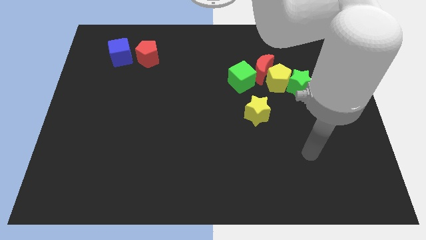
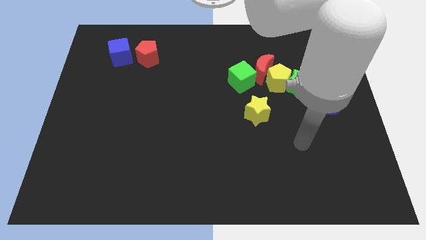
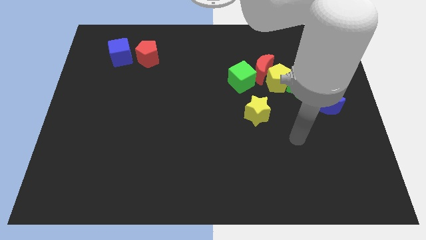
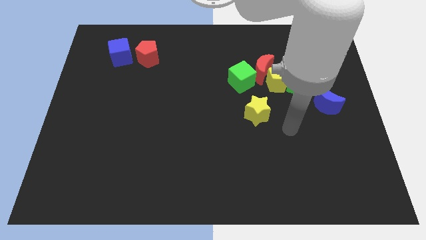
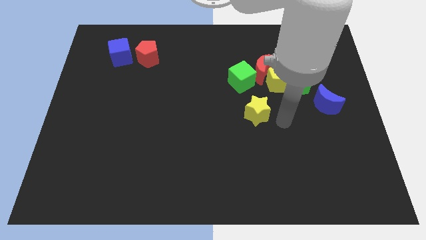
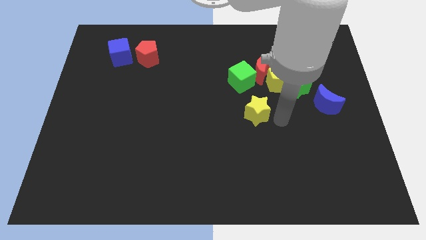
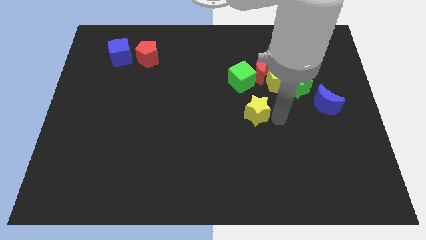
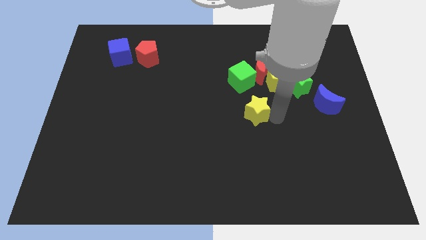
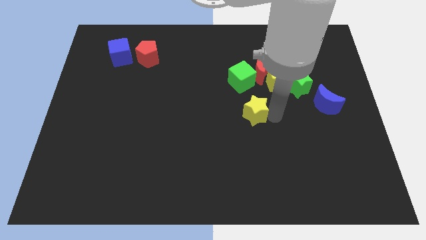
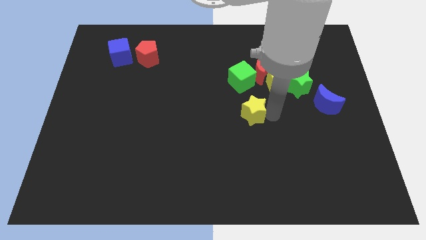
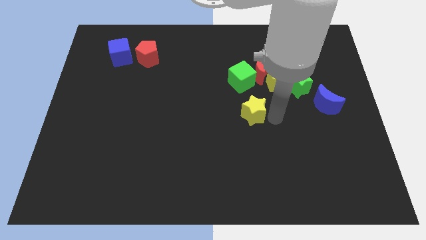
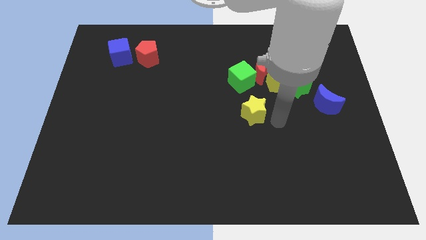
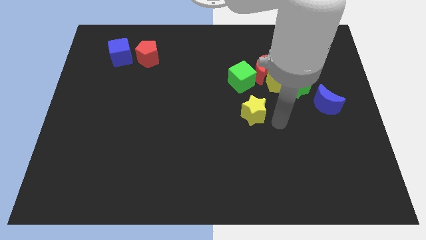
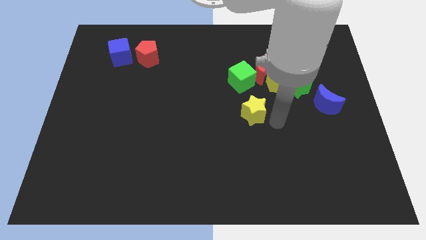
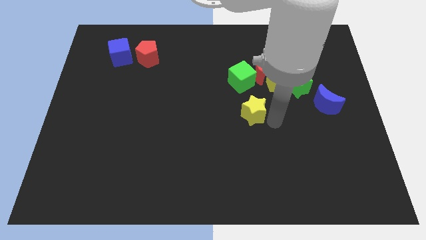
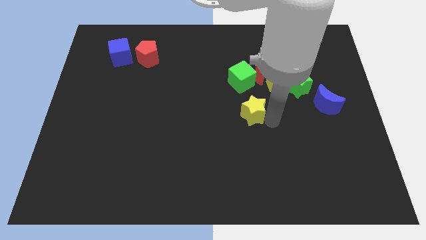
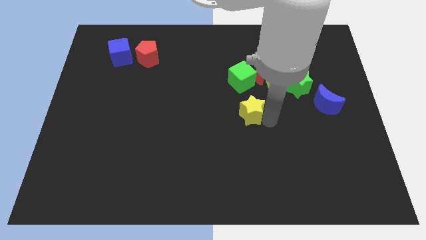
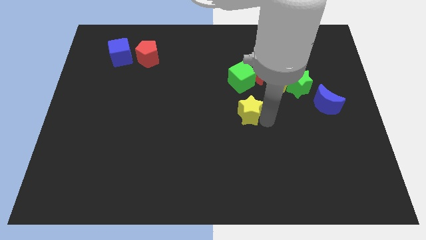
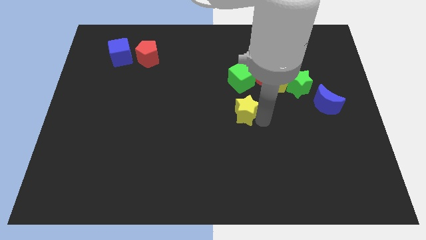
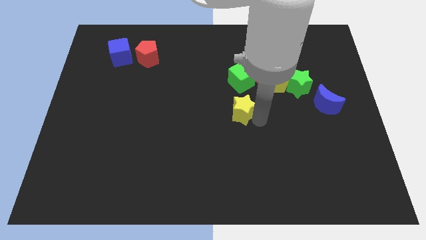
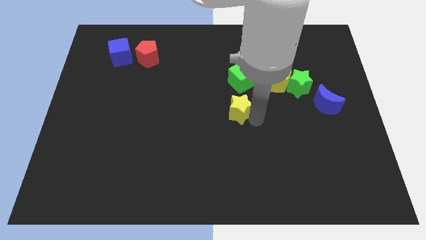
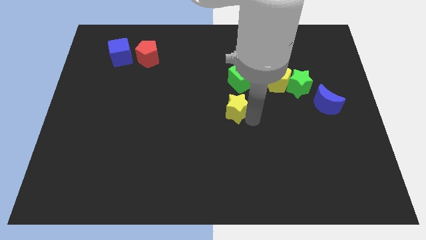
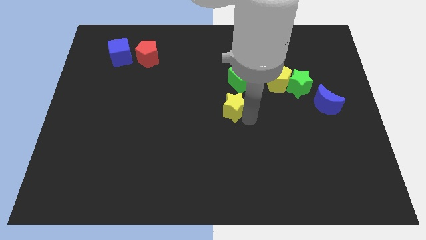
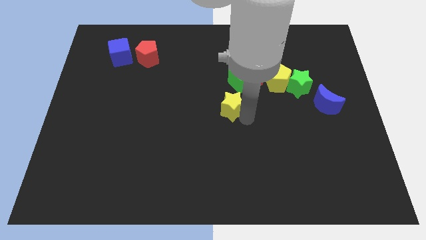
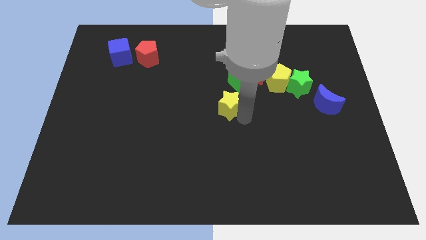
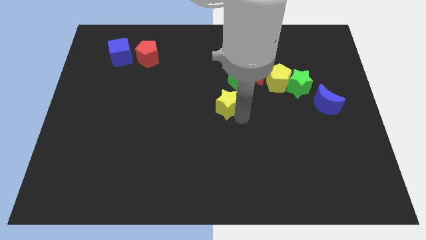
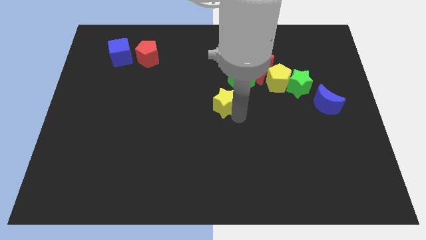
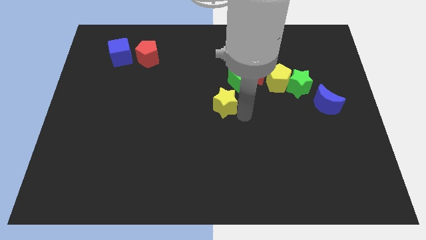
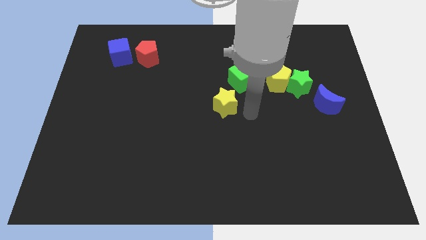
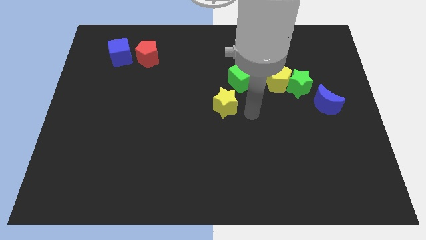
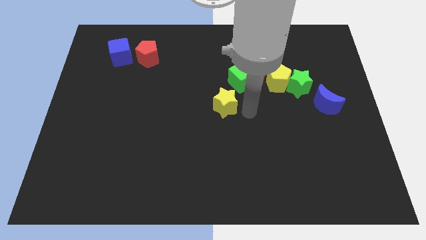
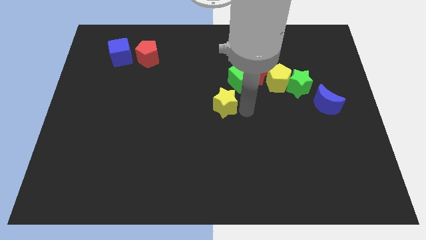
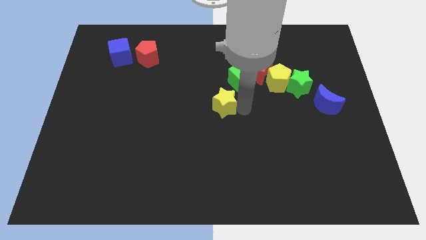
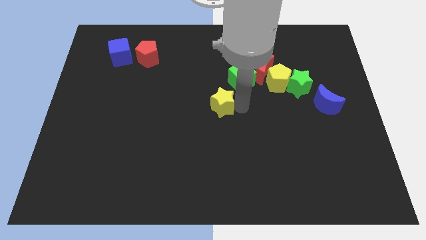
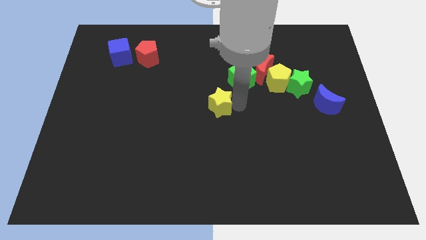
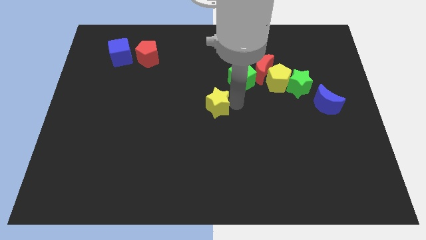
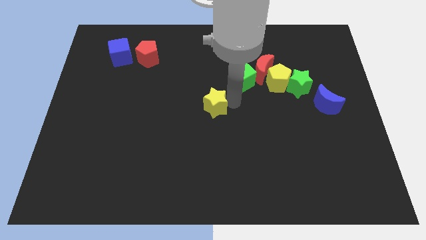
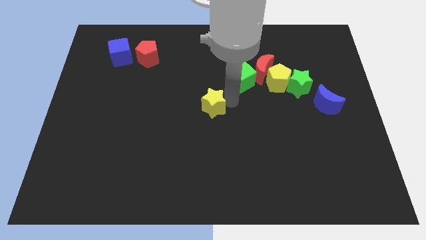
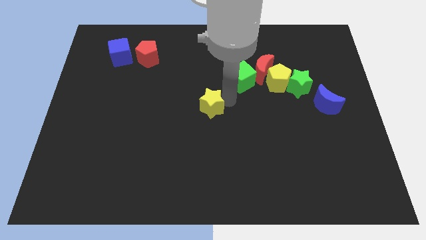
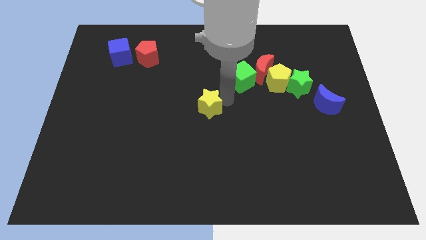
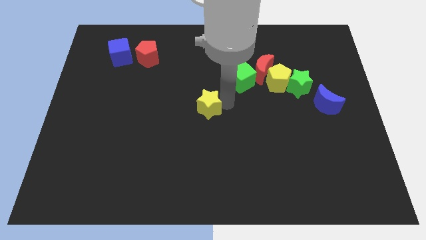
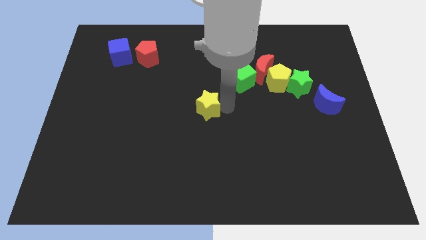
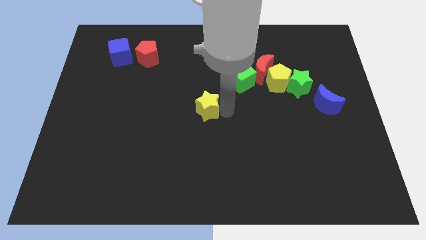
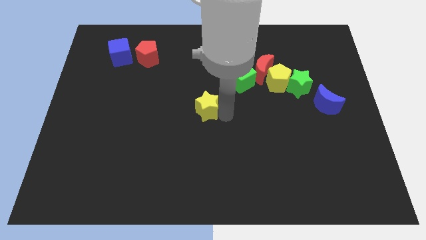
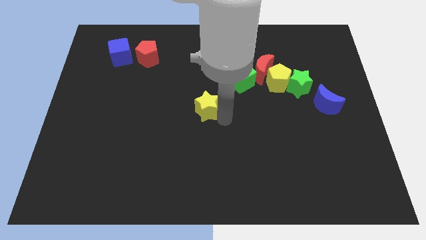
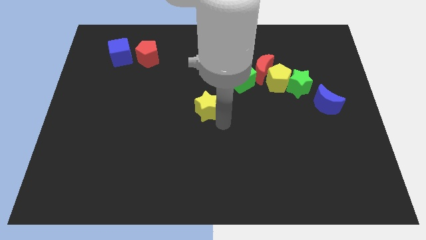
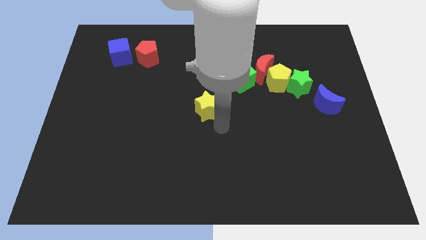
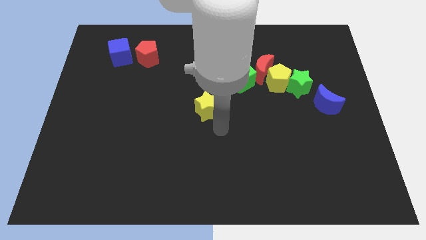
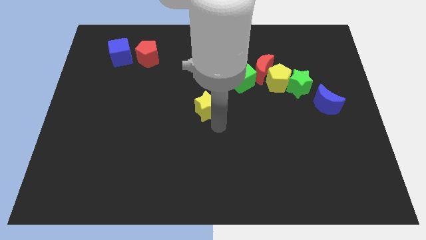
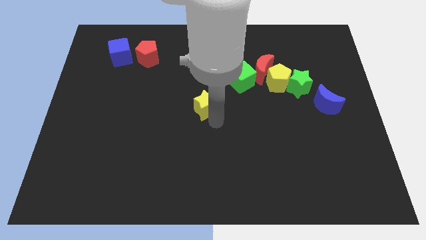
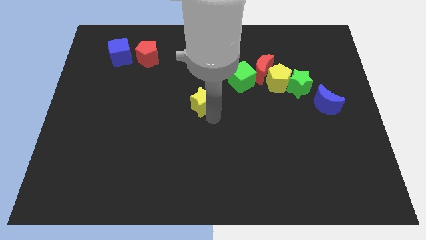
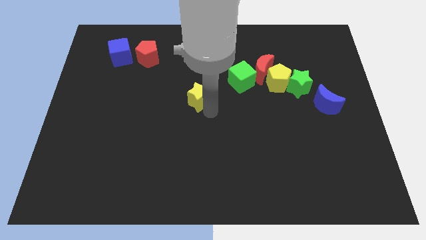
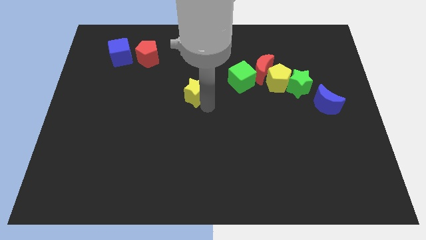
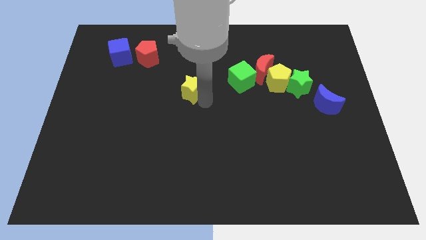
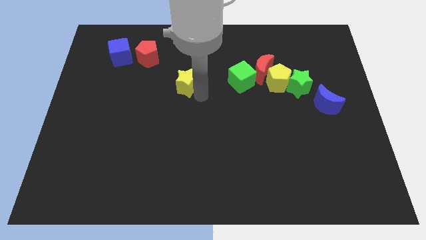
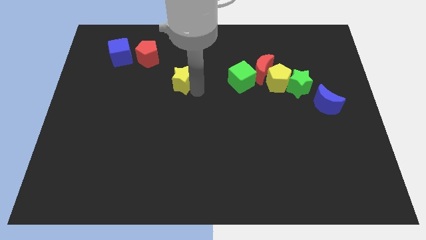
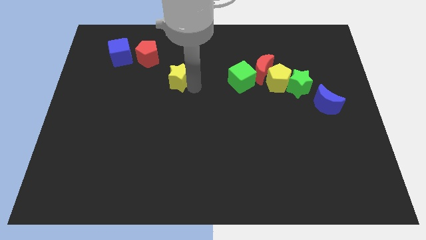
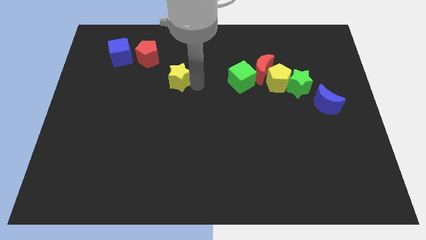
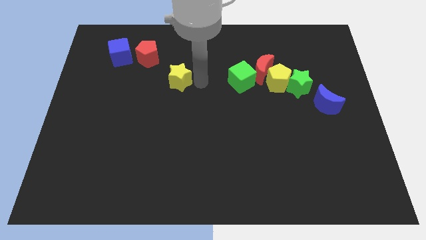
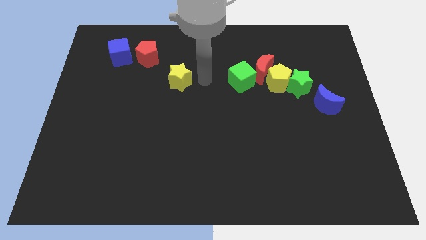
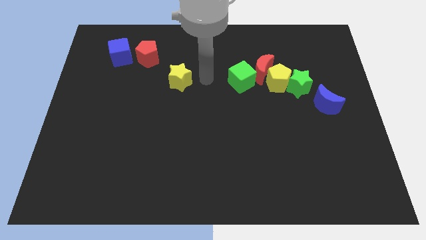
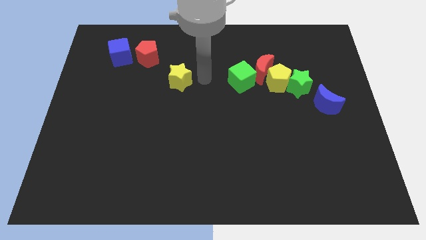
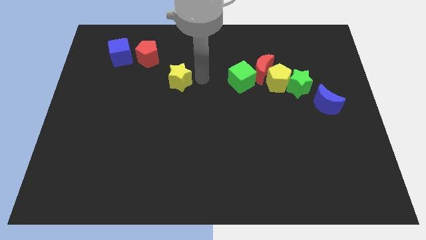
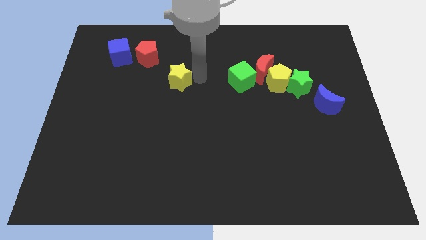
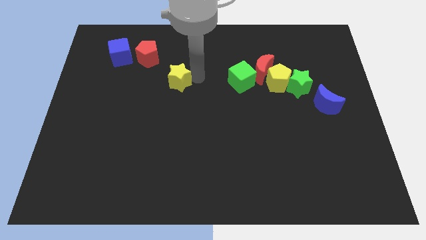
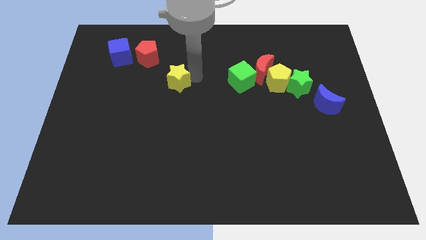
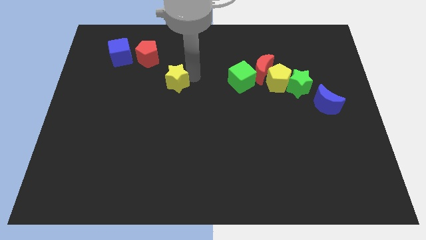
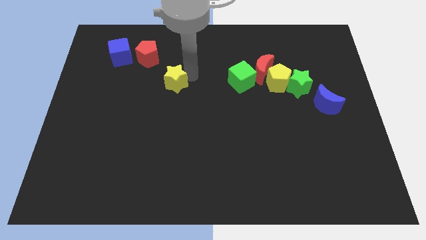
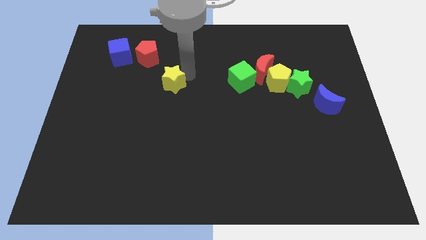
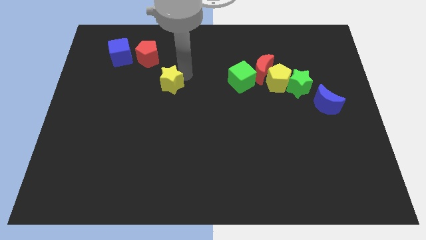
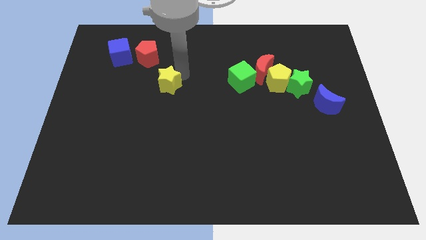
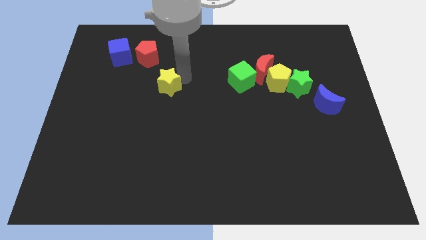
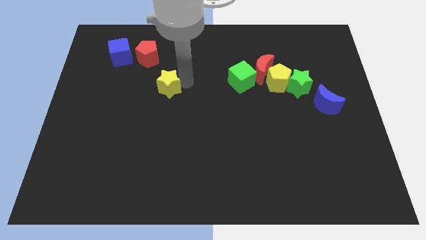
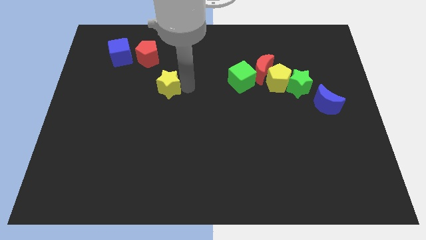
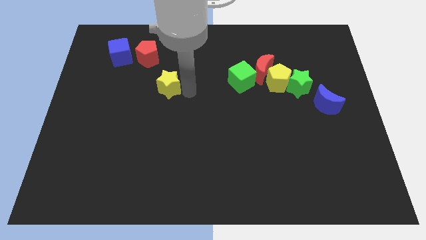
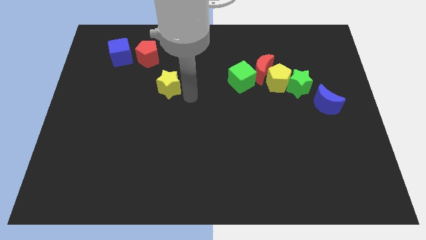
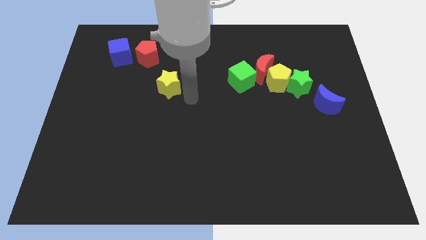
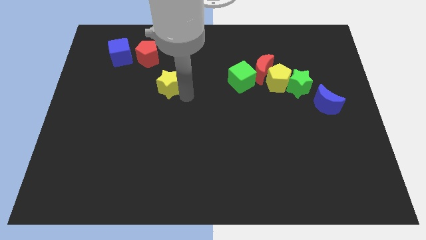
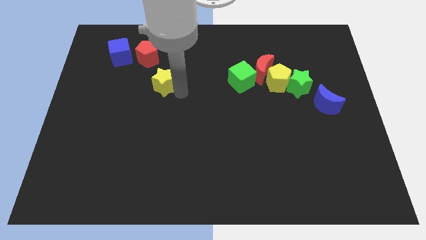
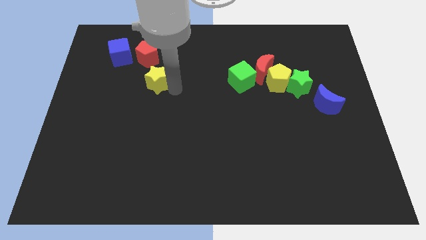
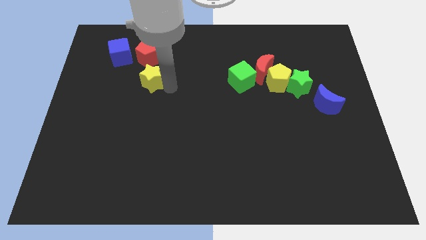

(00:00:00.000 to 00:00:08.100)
push the yellow star to the bottom right side of the blue cube
